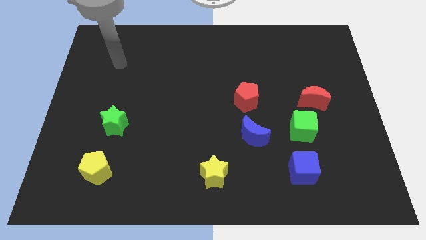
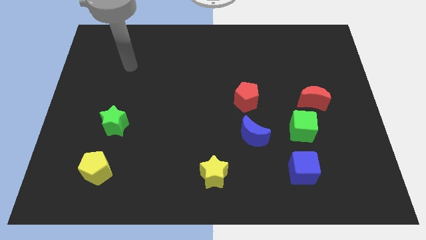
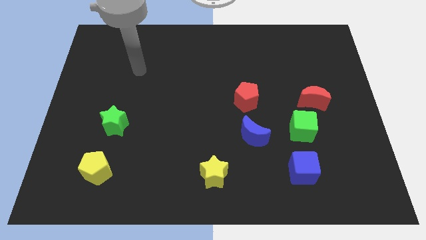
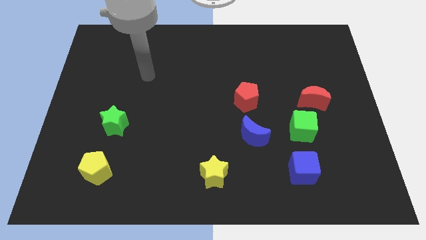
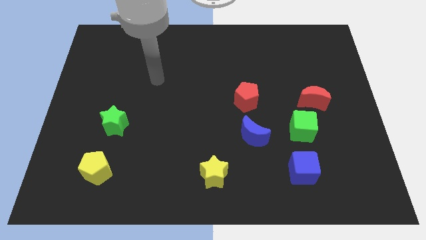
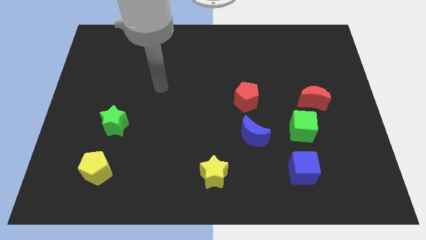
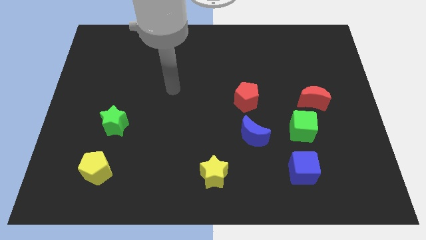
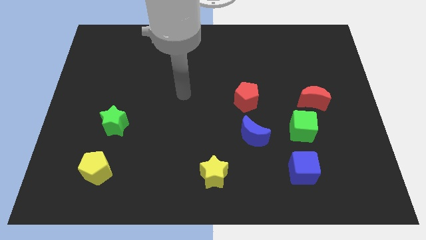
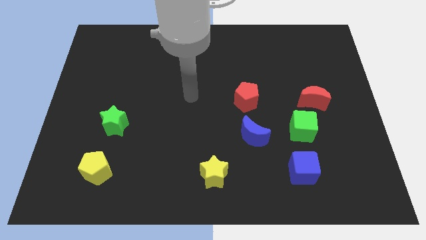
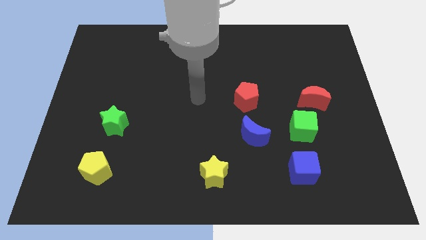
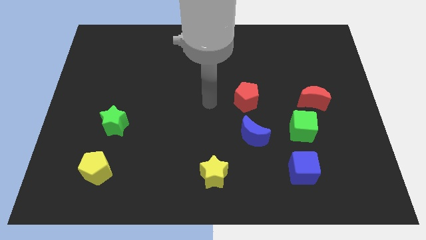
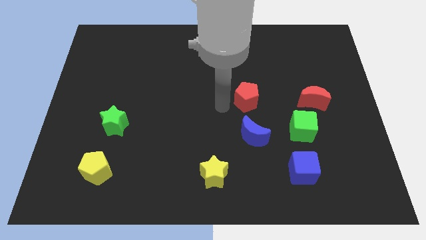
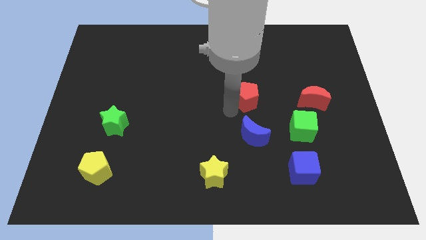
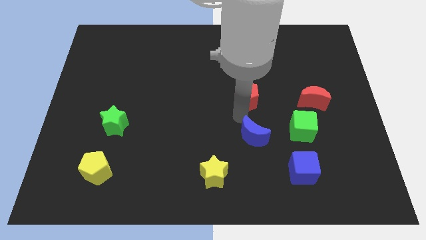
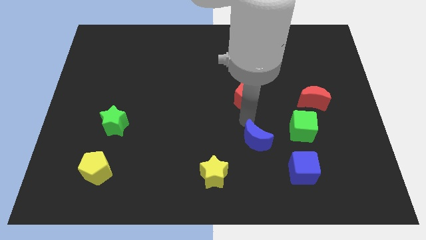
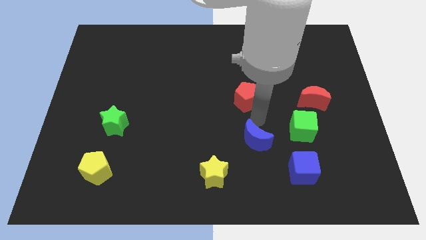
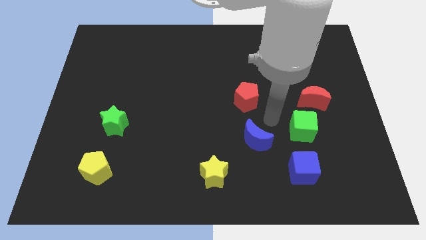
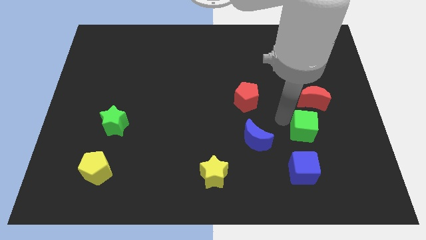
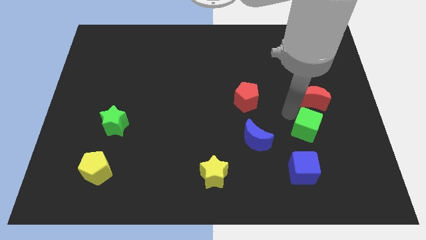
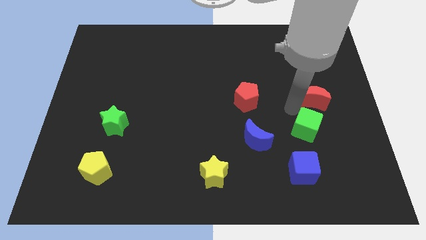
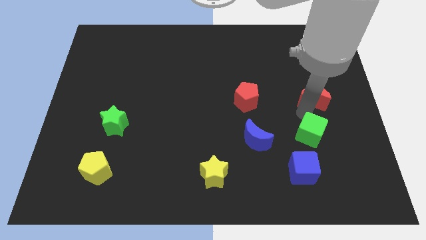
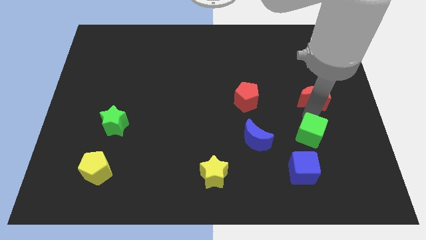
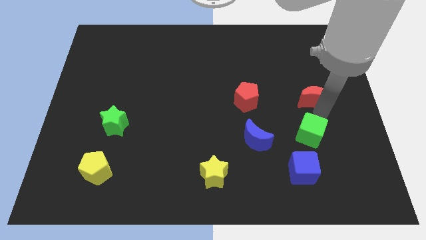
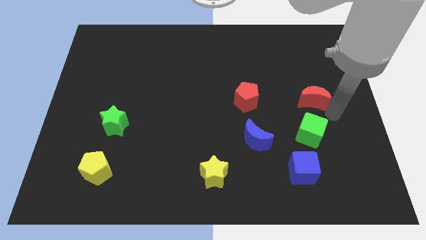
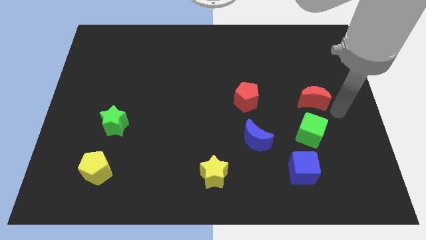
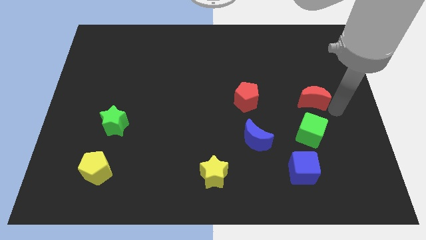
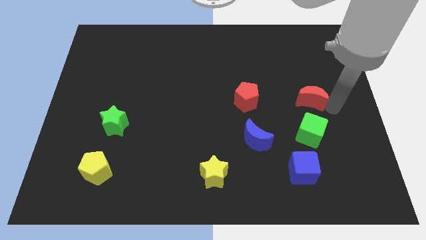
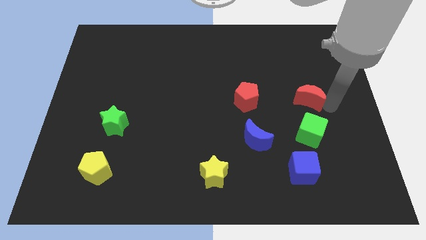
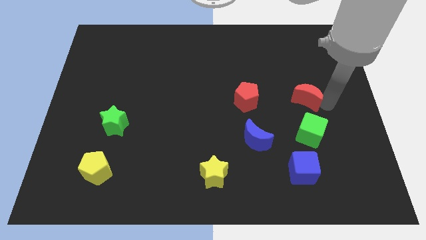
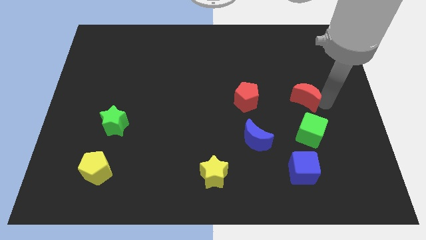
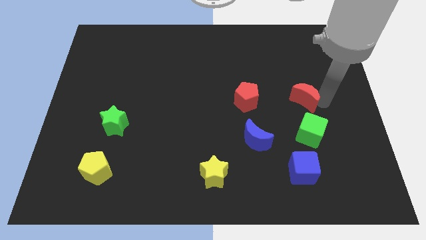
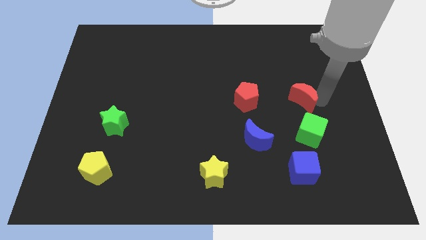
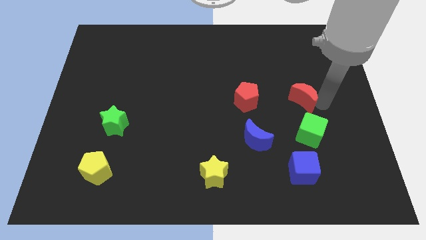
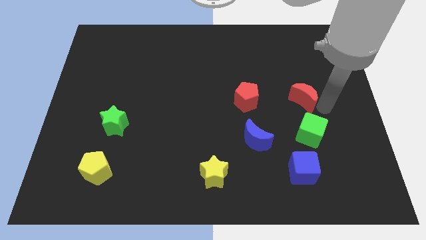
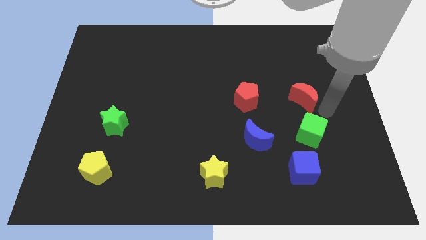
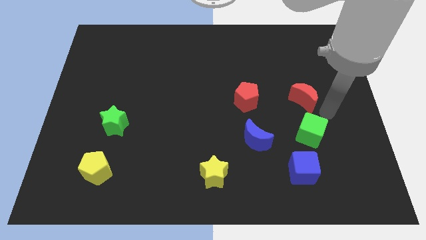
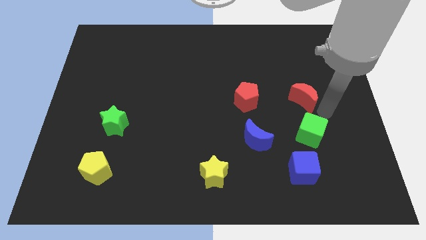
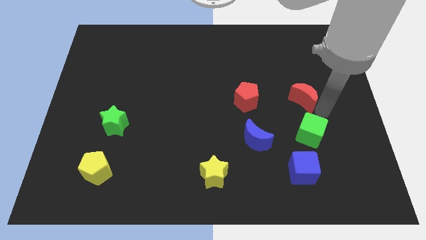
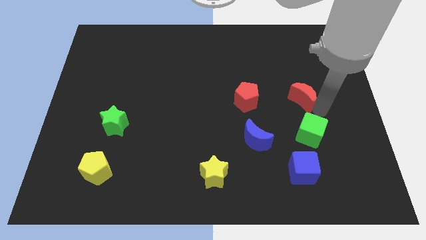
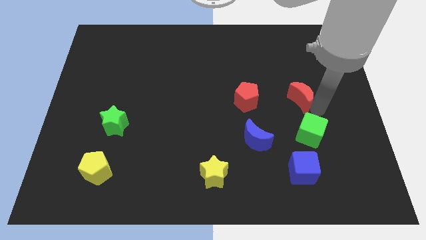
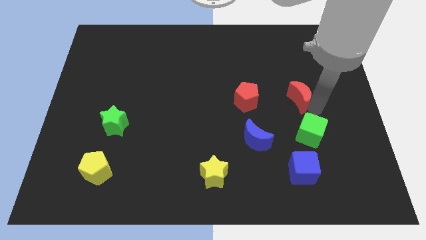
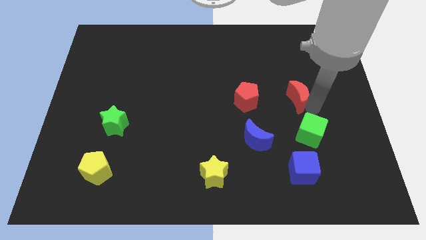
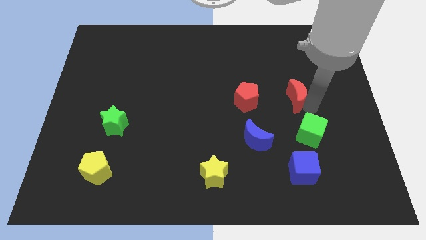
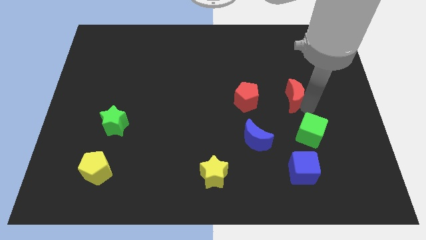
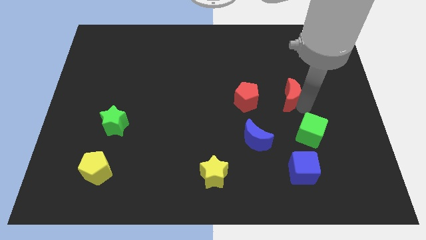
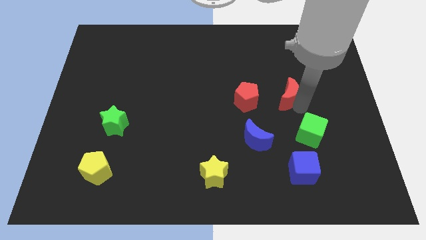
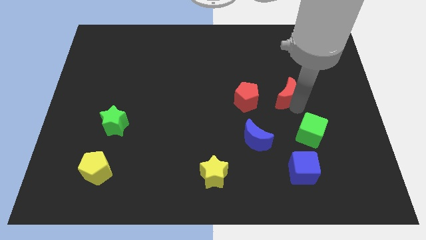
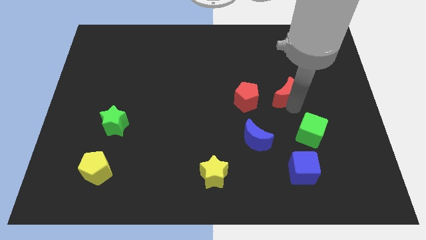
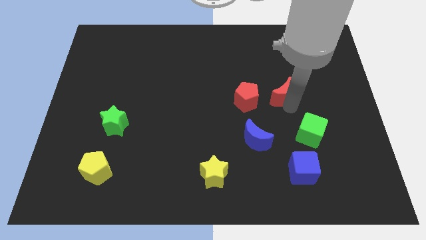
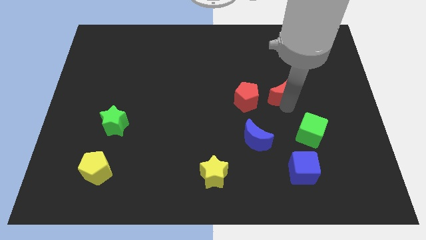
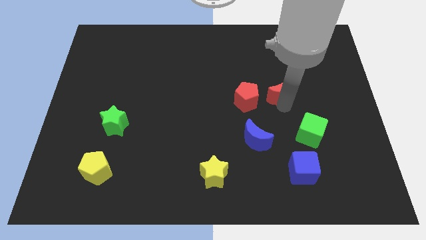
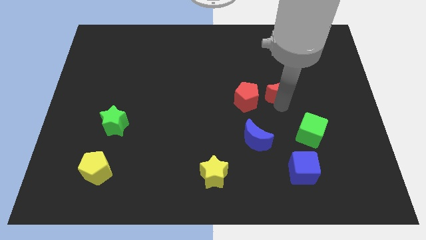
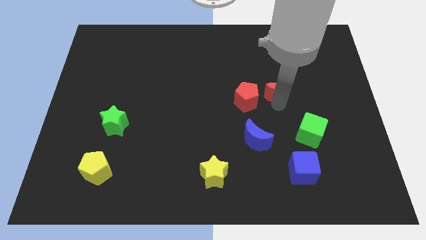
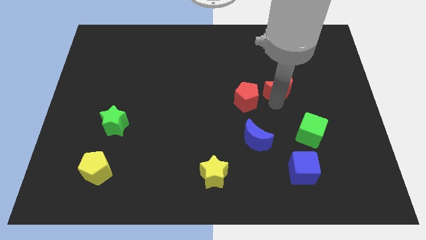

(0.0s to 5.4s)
move the red moon diagonally up and to the left a little bit

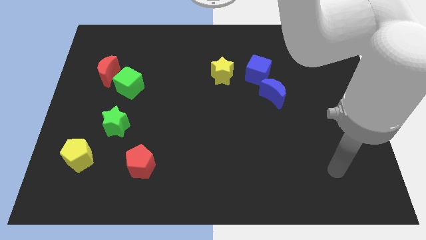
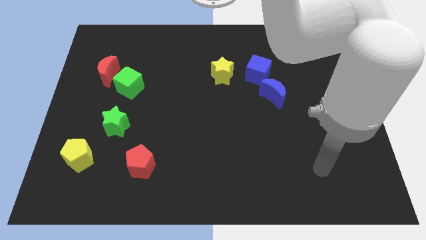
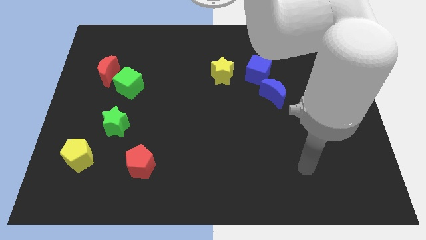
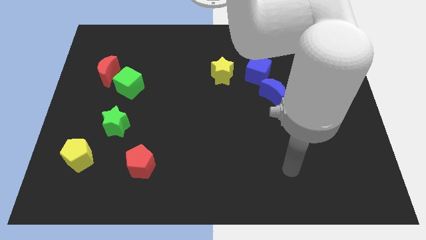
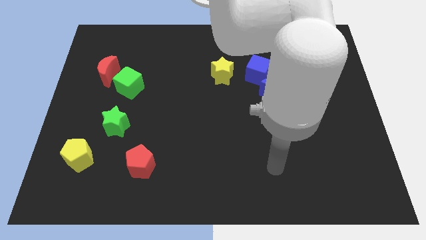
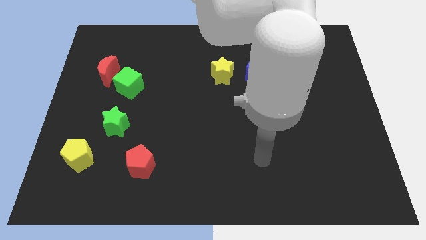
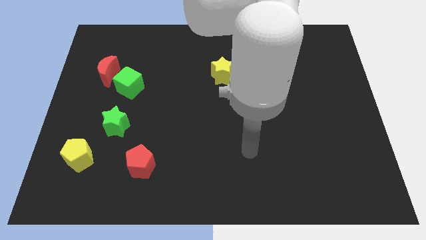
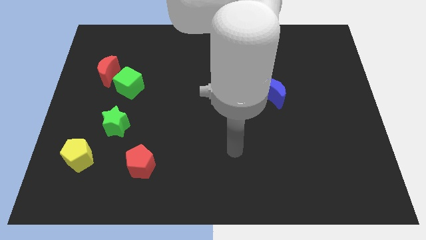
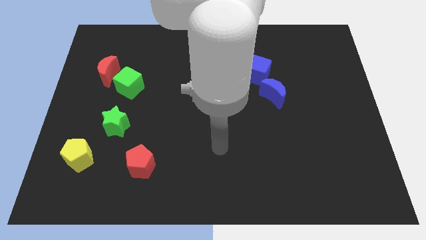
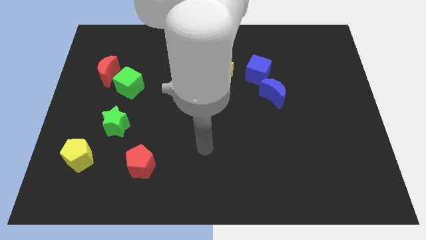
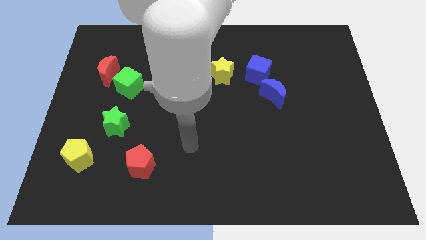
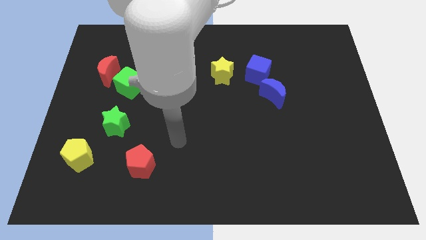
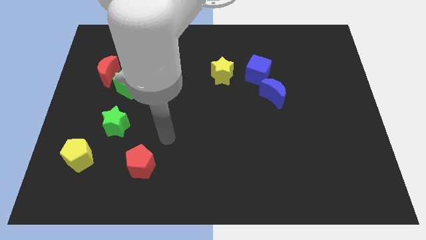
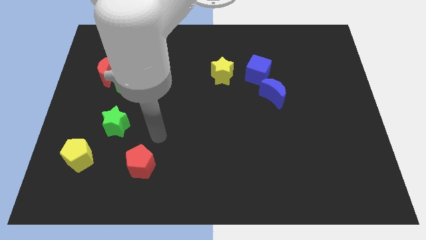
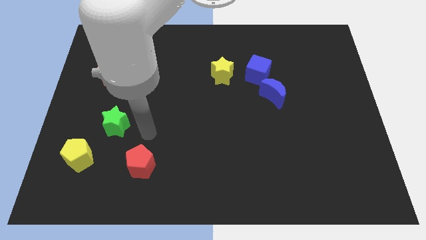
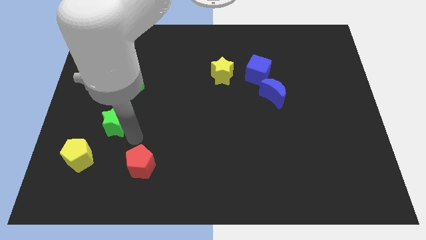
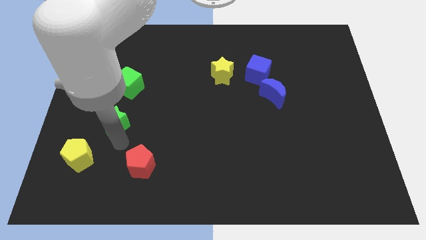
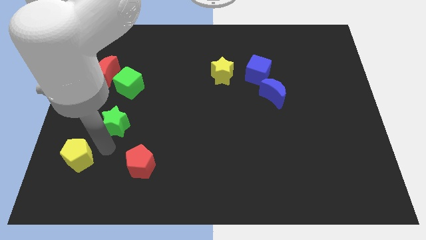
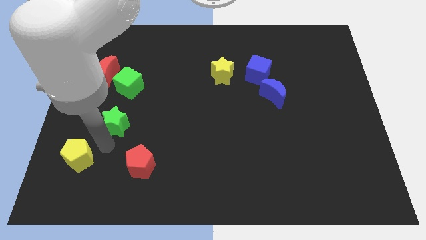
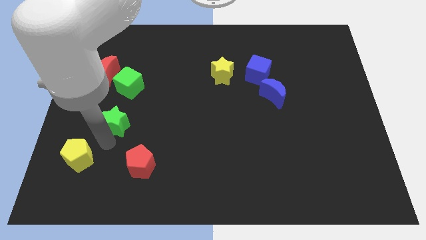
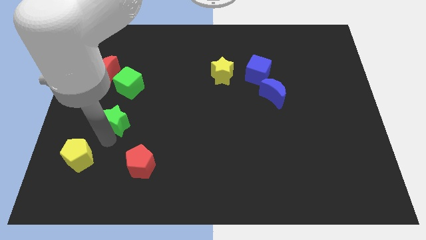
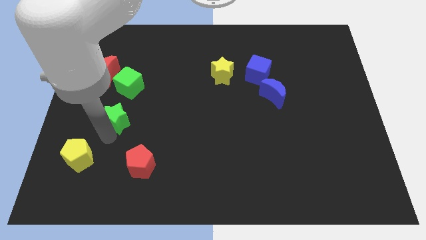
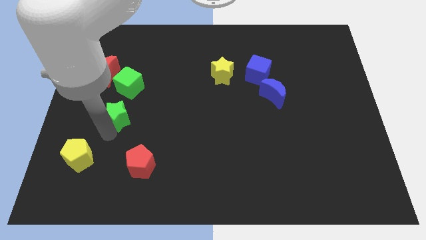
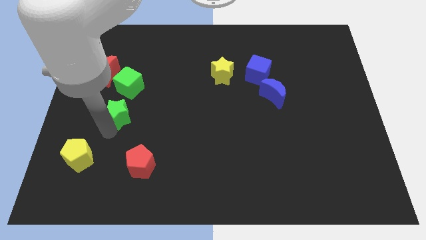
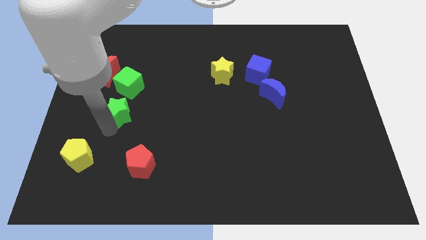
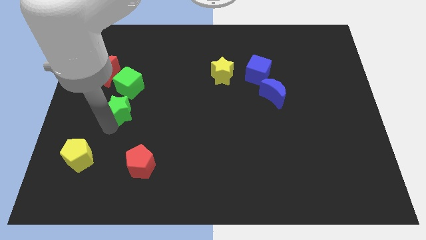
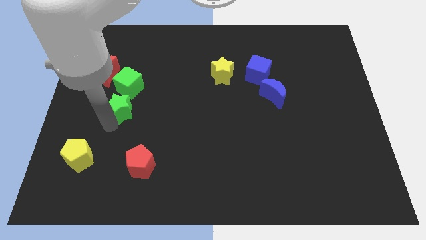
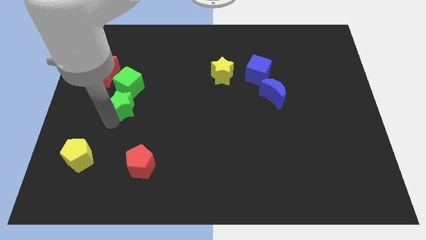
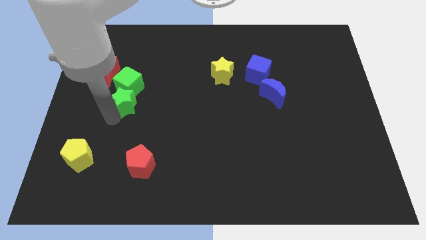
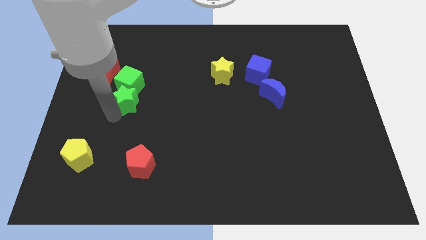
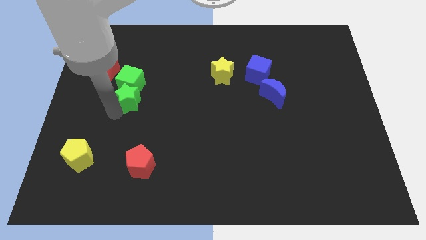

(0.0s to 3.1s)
push the green star slightly upwards
